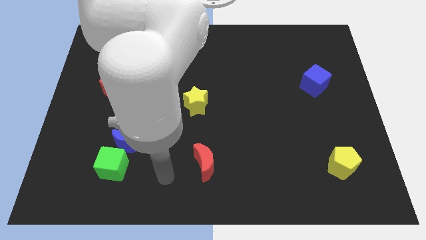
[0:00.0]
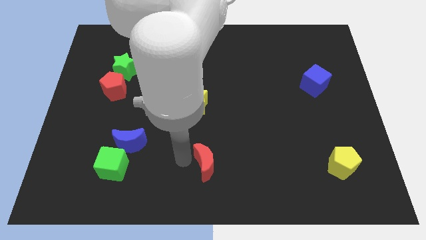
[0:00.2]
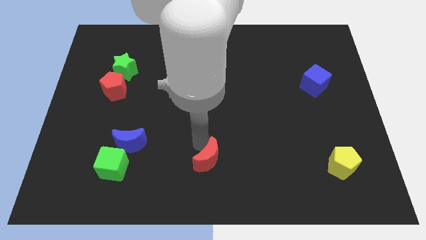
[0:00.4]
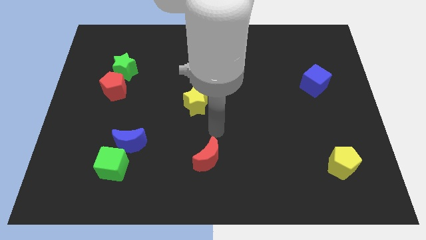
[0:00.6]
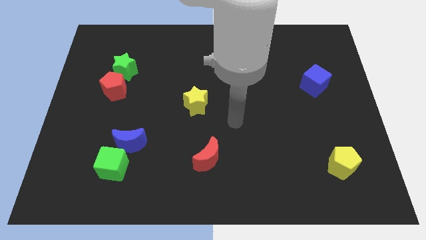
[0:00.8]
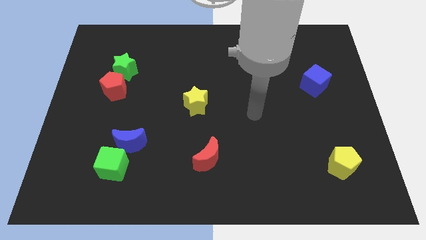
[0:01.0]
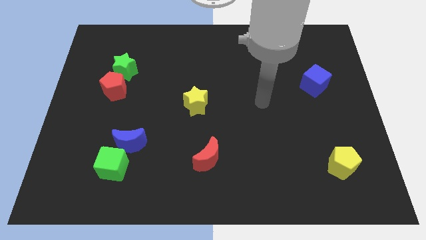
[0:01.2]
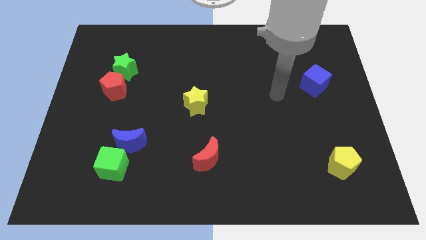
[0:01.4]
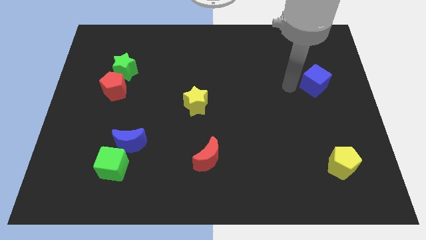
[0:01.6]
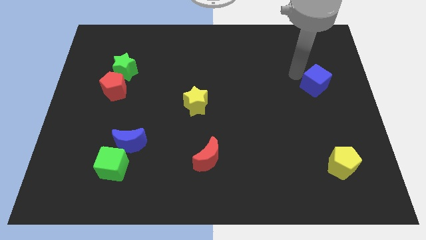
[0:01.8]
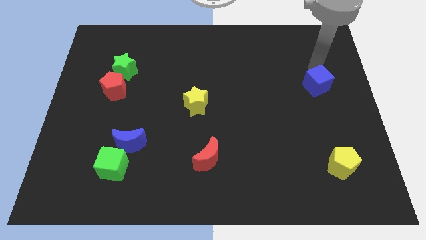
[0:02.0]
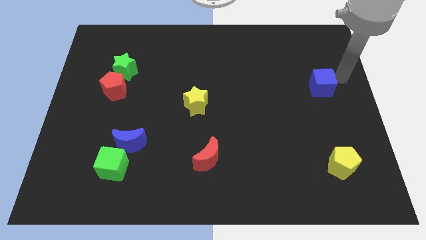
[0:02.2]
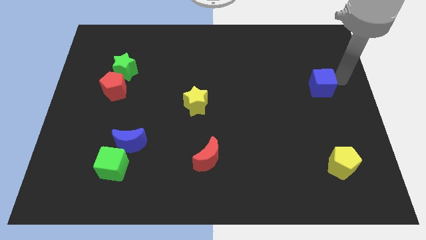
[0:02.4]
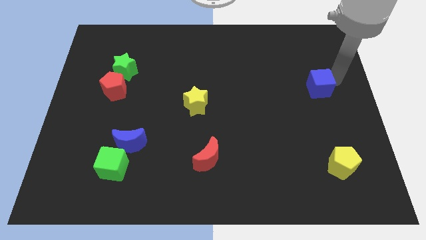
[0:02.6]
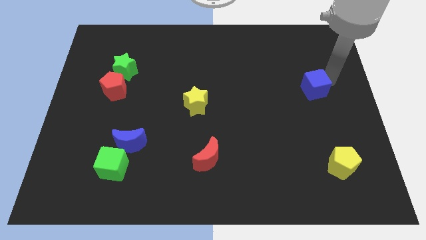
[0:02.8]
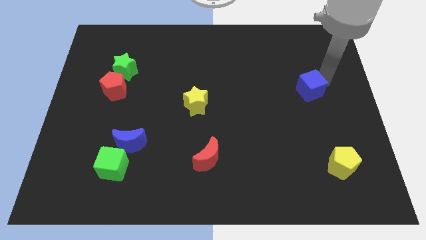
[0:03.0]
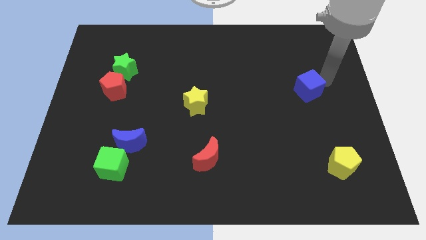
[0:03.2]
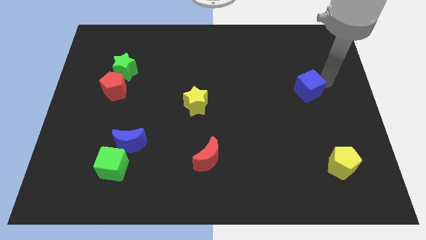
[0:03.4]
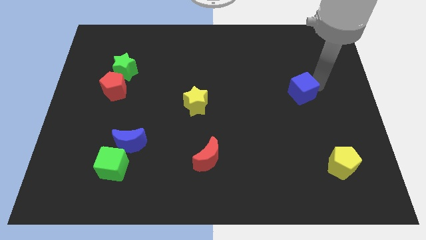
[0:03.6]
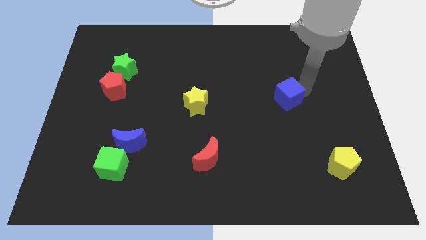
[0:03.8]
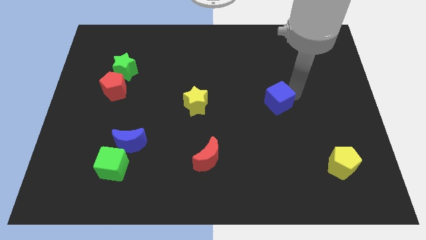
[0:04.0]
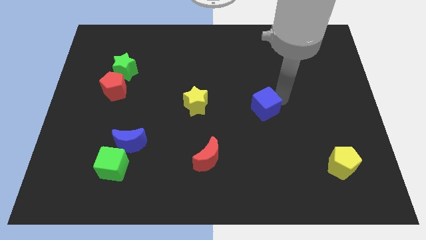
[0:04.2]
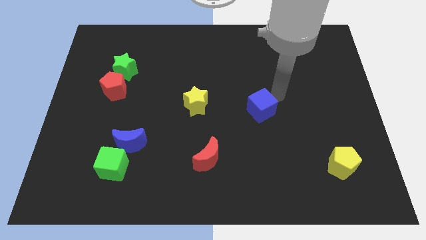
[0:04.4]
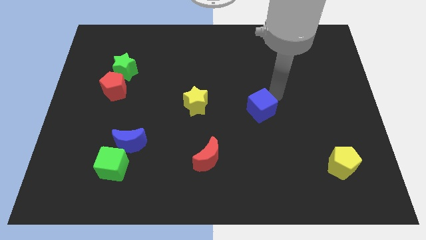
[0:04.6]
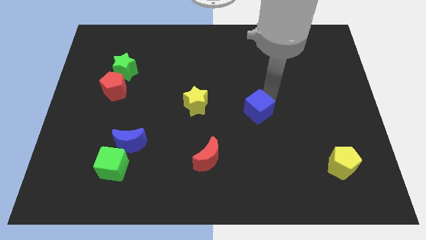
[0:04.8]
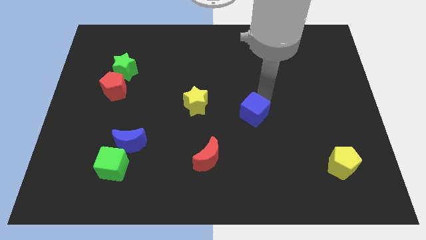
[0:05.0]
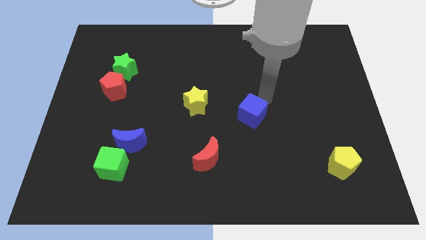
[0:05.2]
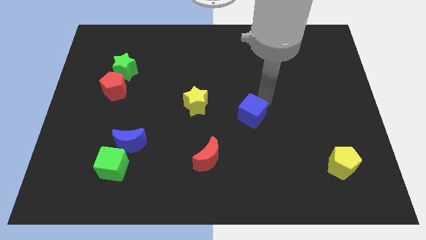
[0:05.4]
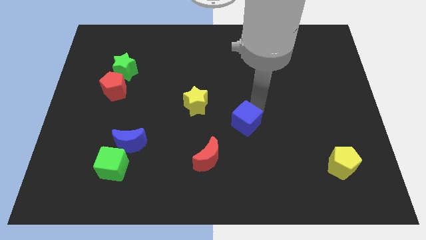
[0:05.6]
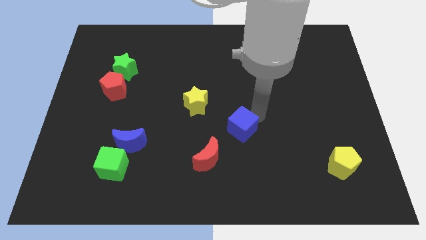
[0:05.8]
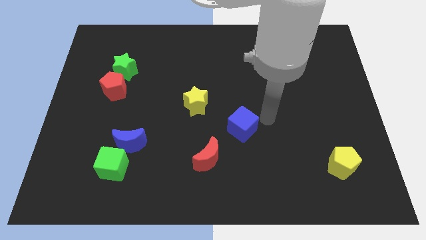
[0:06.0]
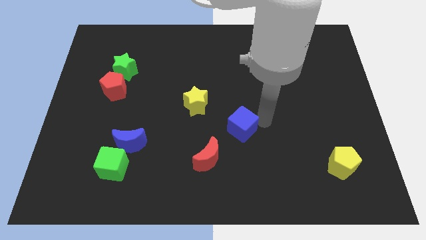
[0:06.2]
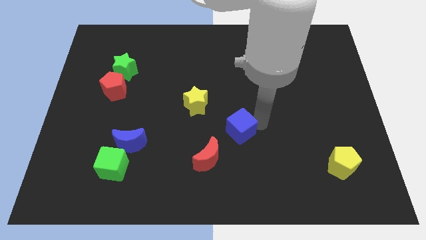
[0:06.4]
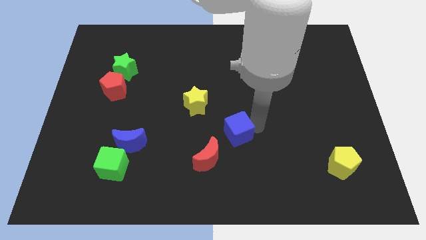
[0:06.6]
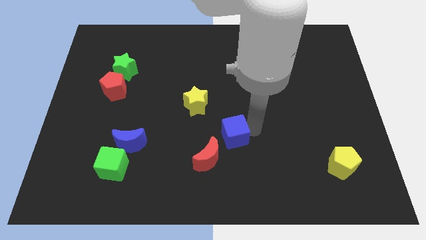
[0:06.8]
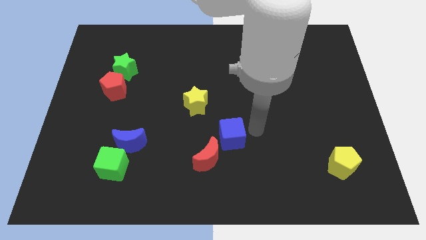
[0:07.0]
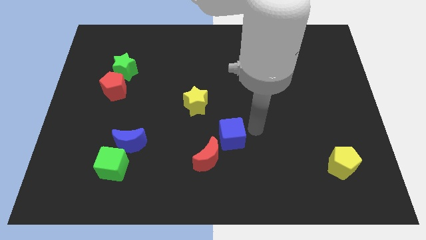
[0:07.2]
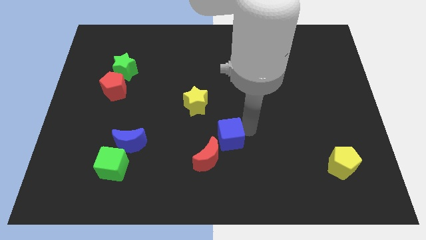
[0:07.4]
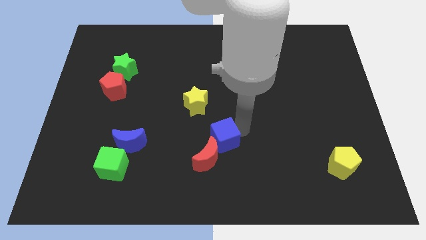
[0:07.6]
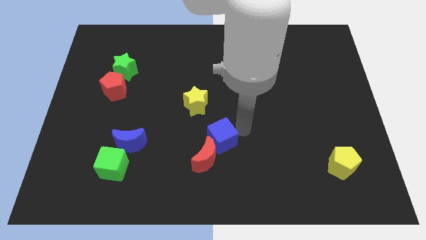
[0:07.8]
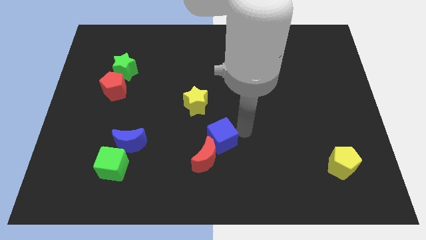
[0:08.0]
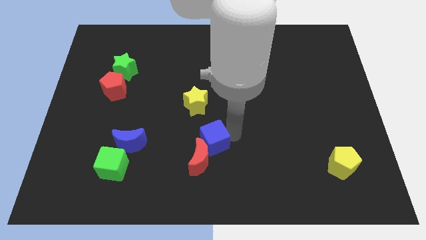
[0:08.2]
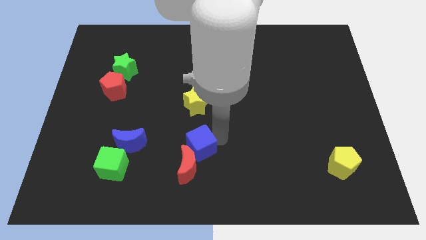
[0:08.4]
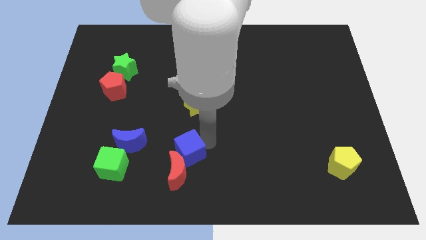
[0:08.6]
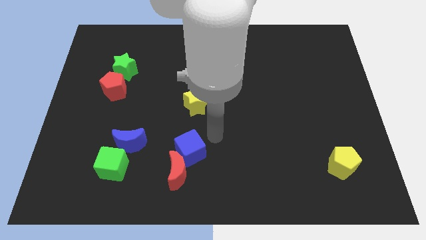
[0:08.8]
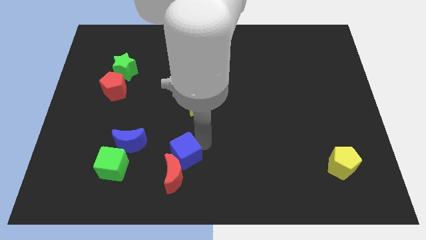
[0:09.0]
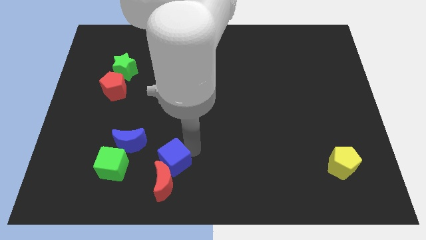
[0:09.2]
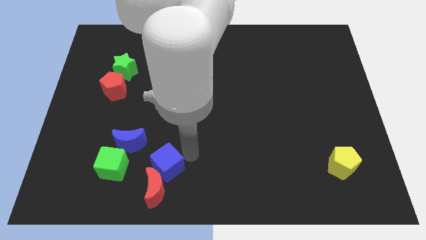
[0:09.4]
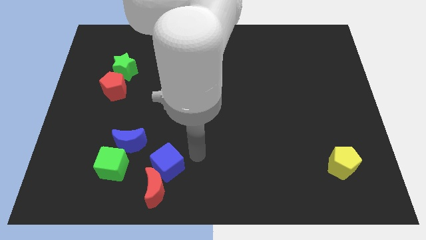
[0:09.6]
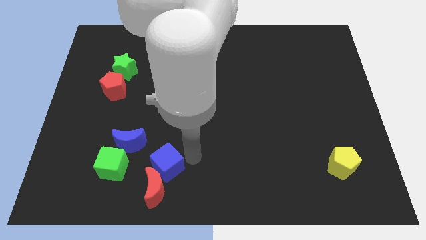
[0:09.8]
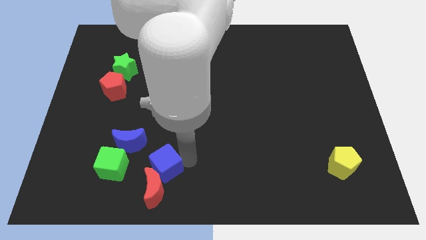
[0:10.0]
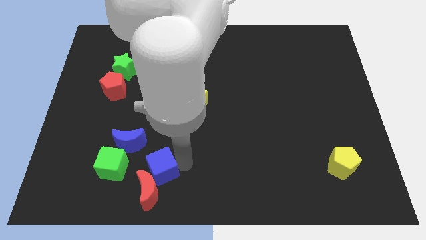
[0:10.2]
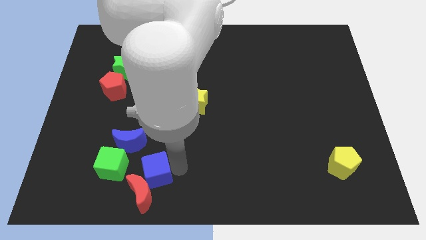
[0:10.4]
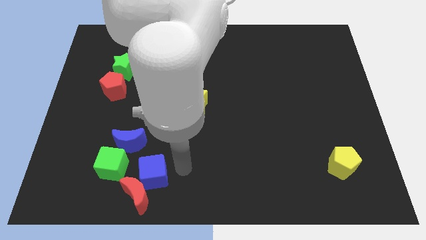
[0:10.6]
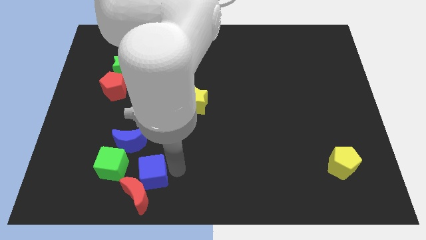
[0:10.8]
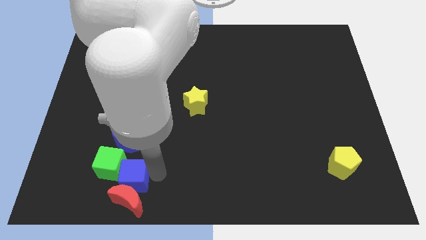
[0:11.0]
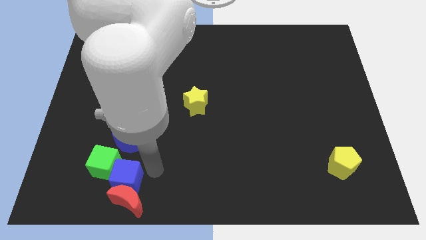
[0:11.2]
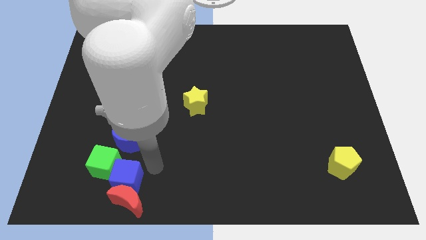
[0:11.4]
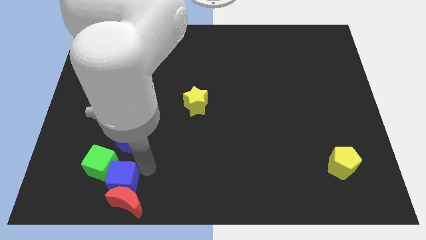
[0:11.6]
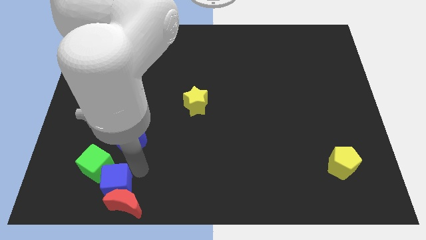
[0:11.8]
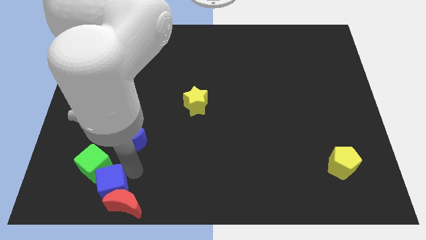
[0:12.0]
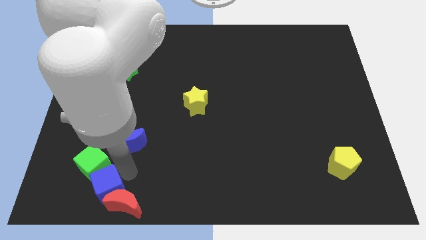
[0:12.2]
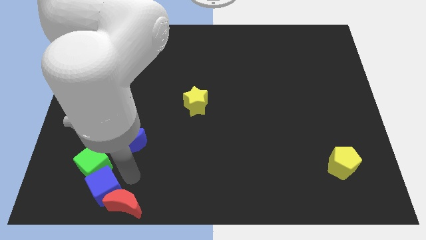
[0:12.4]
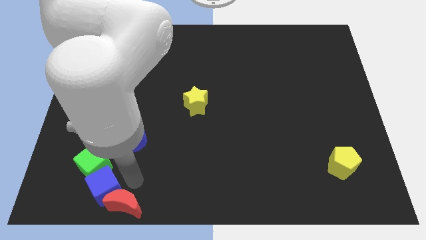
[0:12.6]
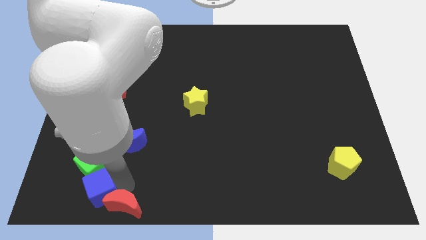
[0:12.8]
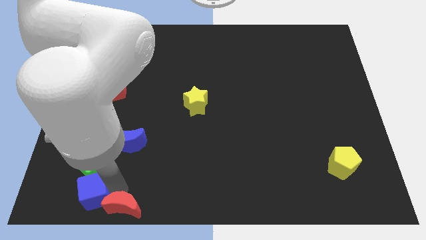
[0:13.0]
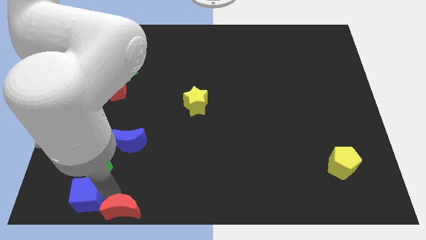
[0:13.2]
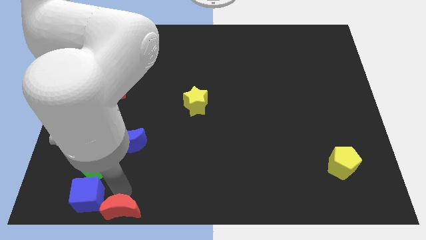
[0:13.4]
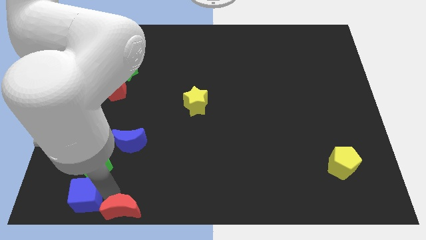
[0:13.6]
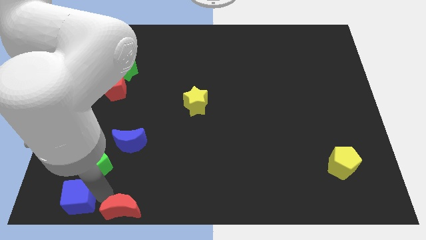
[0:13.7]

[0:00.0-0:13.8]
put the blue cube to the lower left corner
